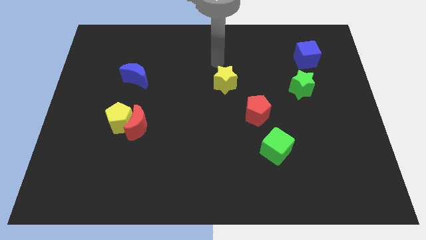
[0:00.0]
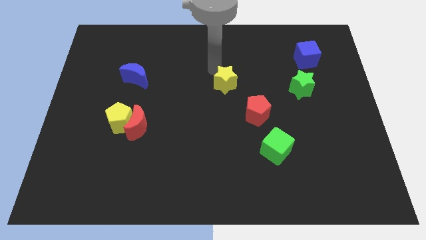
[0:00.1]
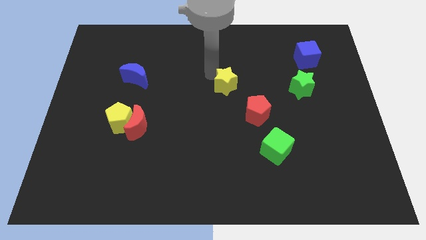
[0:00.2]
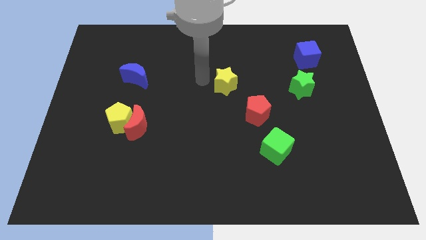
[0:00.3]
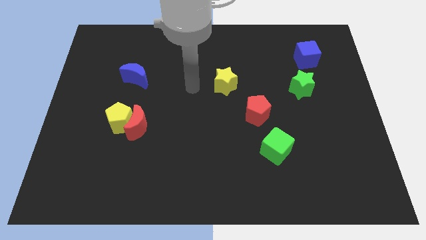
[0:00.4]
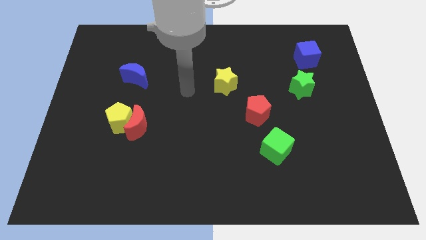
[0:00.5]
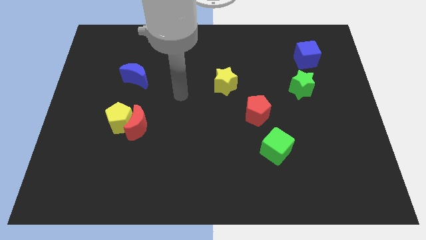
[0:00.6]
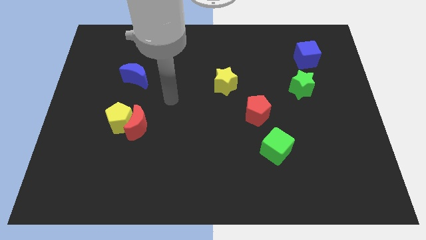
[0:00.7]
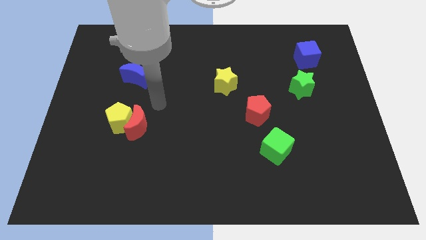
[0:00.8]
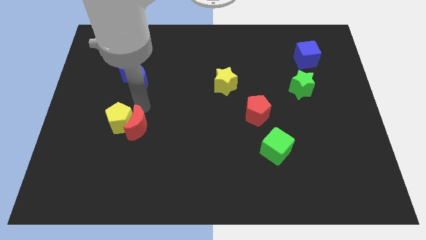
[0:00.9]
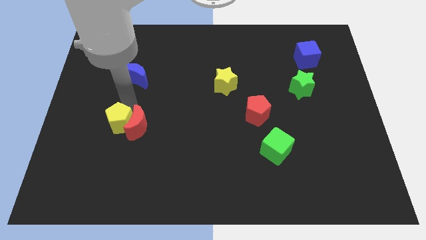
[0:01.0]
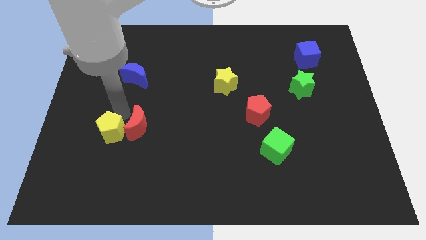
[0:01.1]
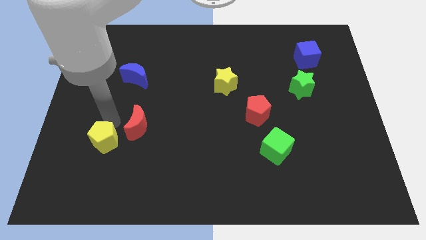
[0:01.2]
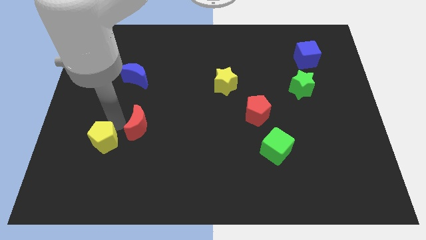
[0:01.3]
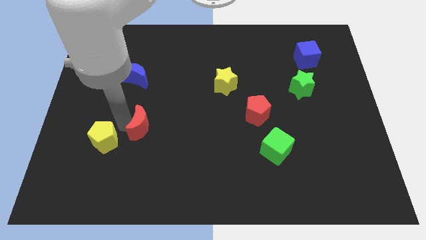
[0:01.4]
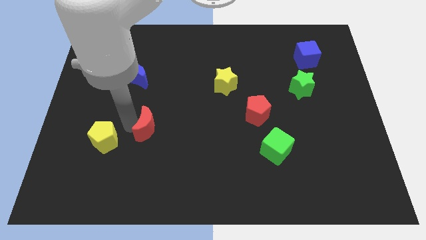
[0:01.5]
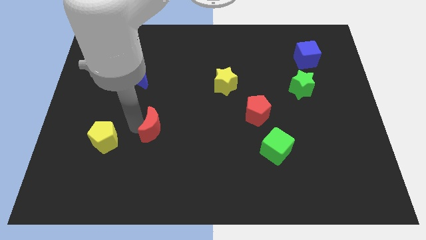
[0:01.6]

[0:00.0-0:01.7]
pull the red moon apart from the yellow pentagon

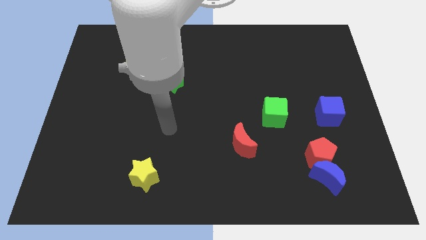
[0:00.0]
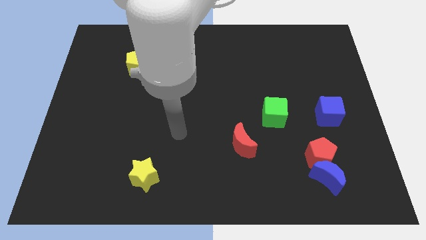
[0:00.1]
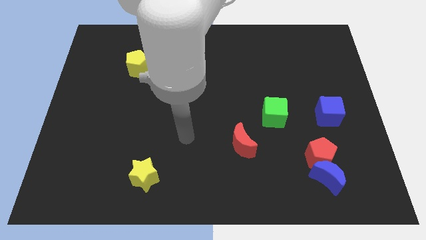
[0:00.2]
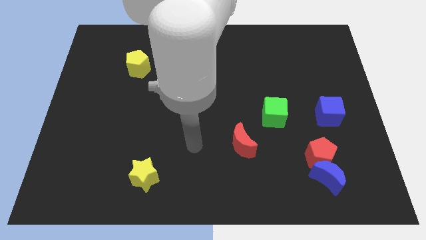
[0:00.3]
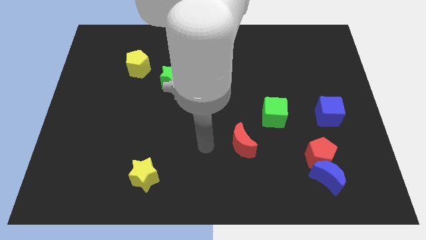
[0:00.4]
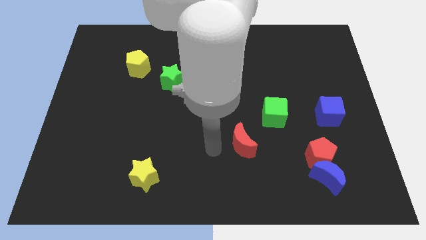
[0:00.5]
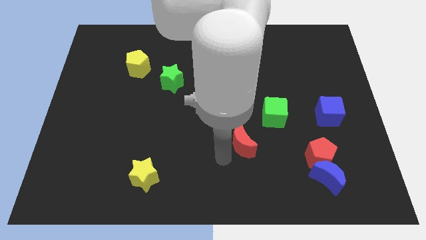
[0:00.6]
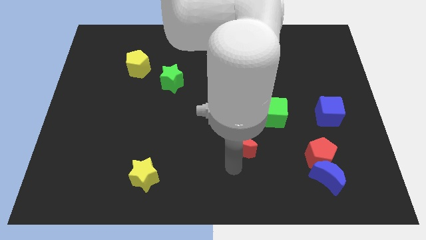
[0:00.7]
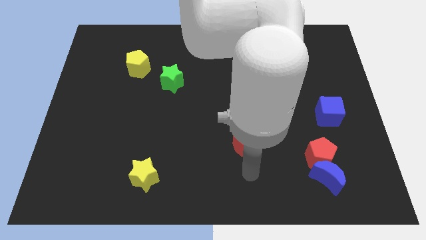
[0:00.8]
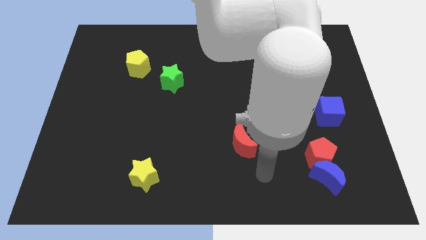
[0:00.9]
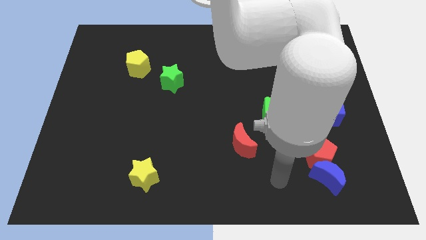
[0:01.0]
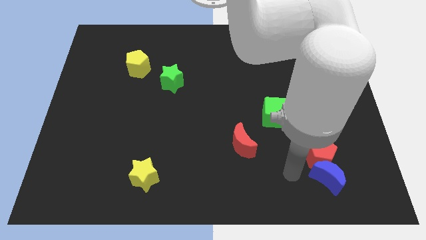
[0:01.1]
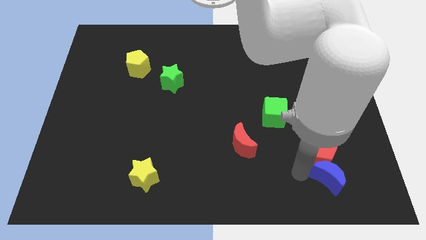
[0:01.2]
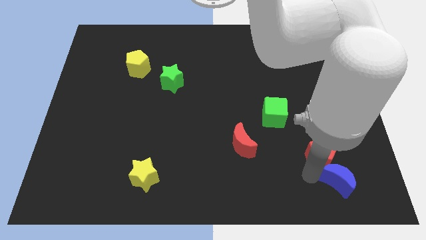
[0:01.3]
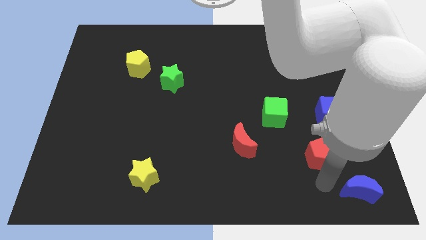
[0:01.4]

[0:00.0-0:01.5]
pull the red pentagon apart from the blue moon

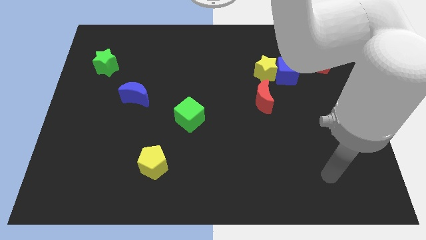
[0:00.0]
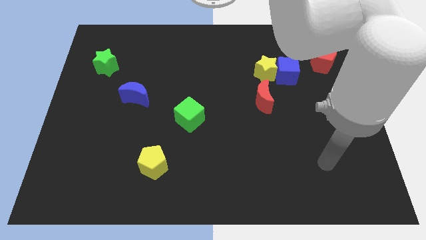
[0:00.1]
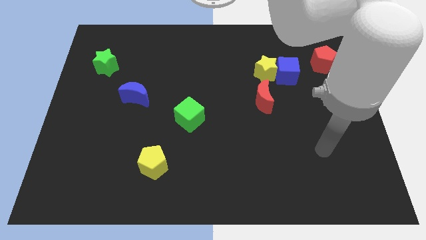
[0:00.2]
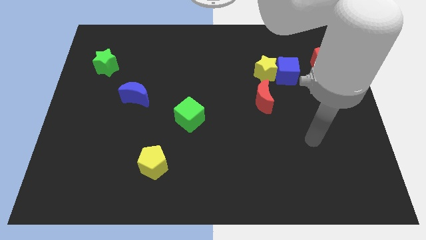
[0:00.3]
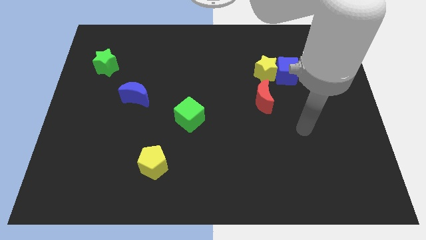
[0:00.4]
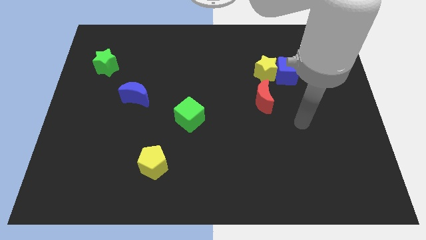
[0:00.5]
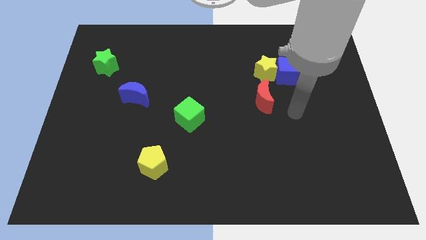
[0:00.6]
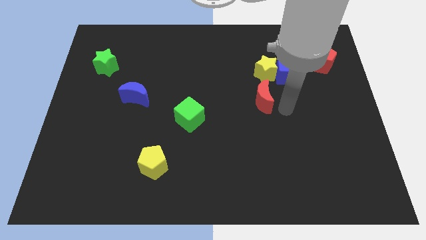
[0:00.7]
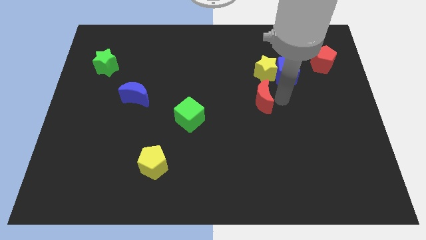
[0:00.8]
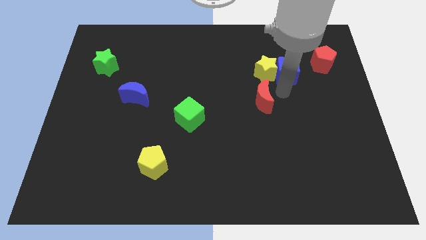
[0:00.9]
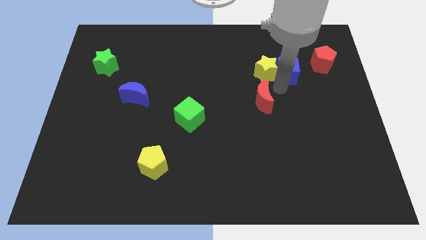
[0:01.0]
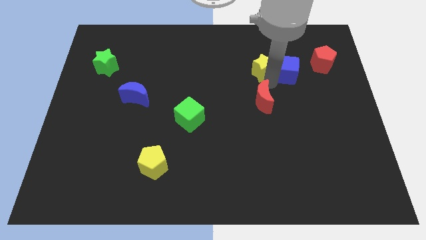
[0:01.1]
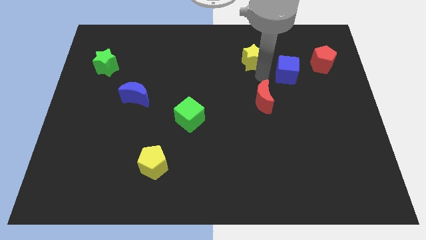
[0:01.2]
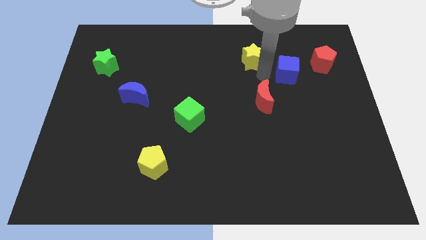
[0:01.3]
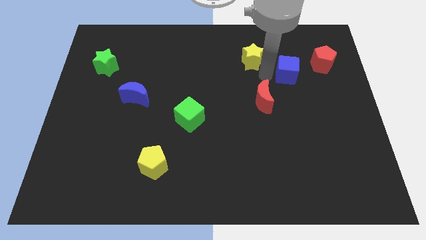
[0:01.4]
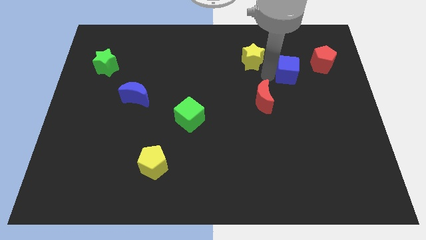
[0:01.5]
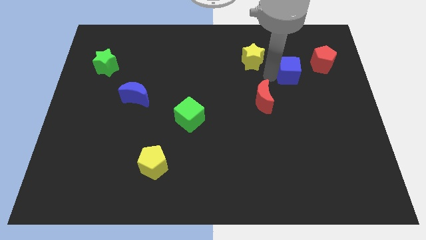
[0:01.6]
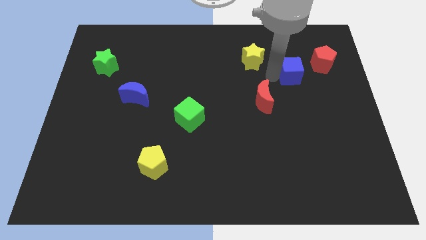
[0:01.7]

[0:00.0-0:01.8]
pull the blue cube apart from the yellow star

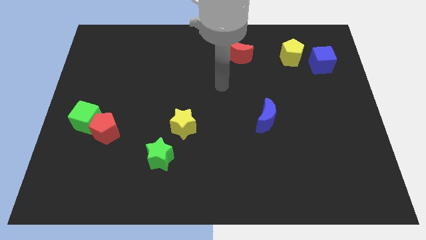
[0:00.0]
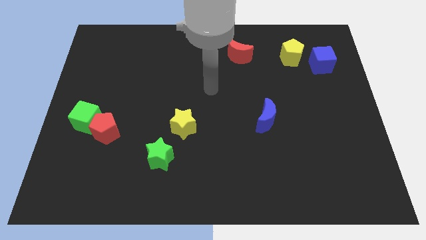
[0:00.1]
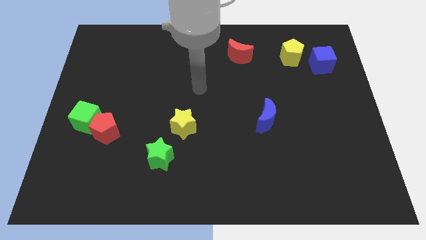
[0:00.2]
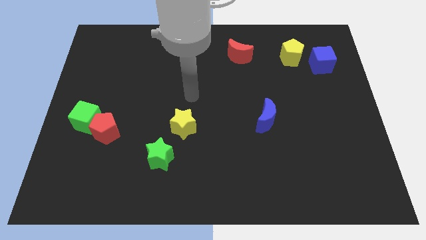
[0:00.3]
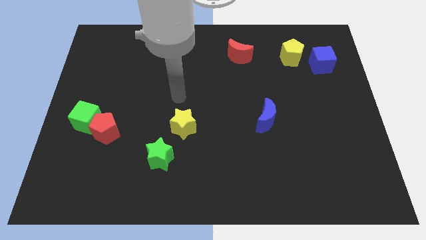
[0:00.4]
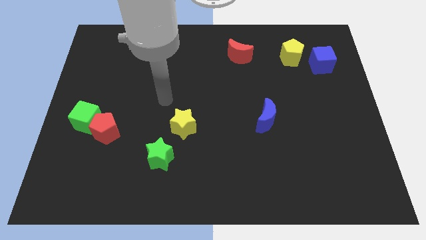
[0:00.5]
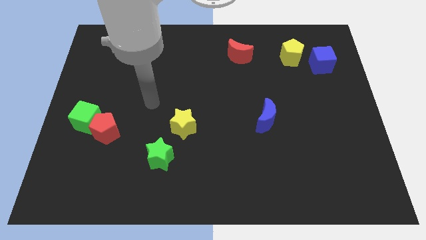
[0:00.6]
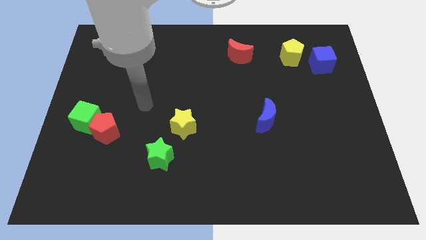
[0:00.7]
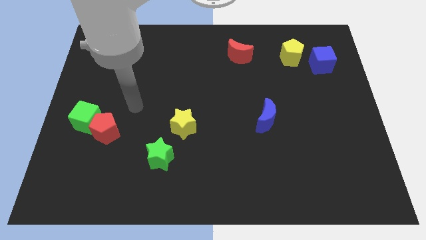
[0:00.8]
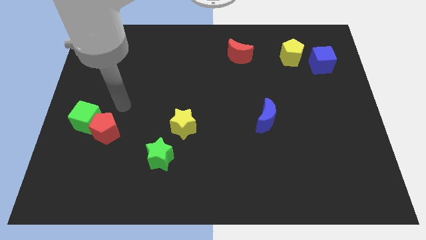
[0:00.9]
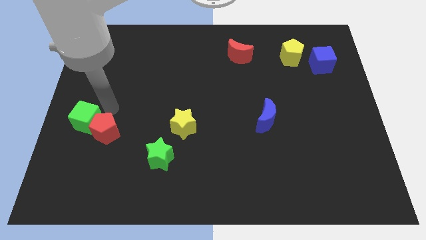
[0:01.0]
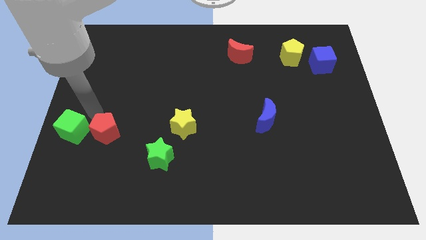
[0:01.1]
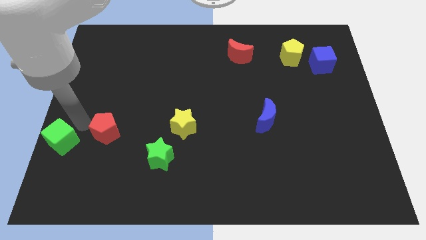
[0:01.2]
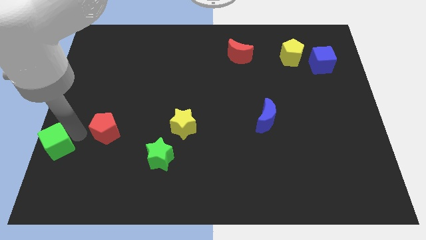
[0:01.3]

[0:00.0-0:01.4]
separate the red pentagon from the green cube

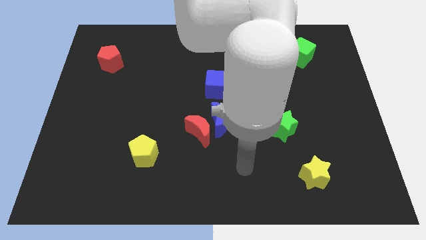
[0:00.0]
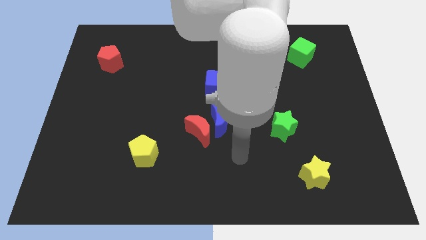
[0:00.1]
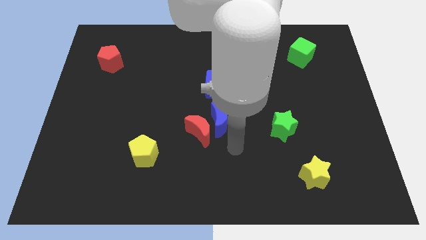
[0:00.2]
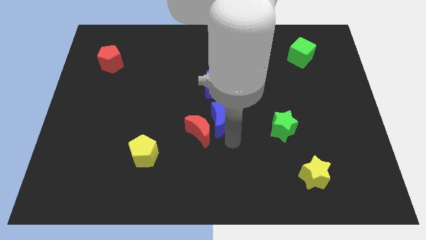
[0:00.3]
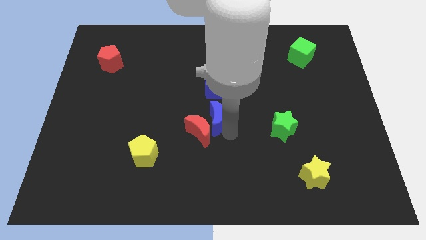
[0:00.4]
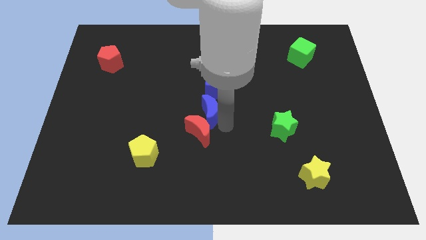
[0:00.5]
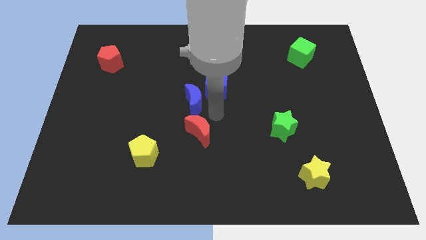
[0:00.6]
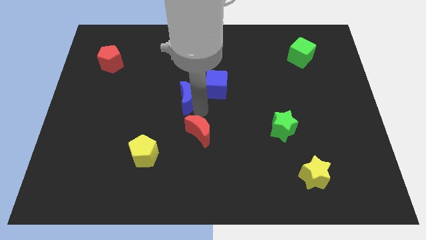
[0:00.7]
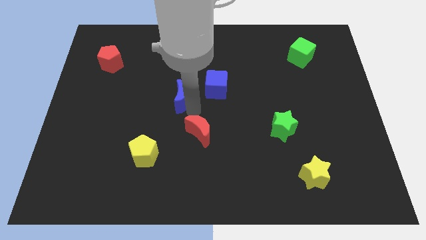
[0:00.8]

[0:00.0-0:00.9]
move the red moon away from the blue moon

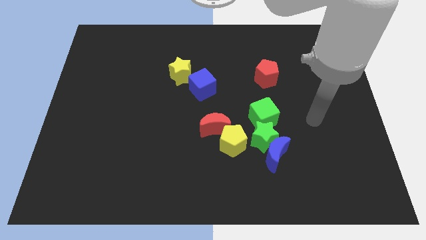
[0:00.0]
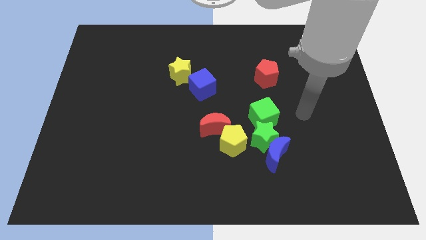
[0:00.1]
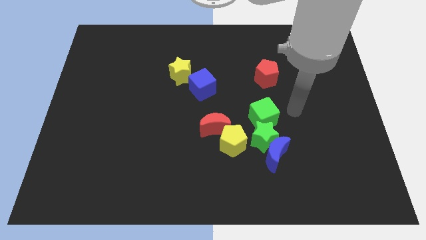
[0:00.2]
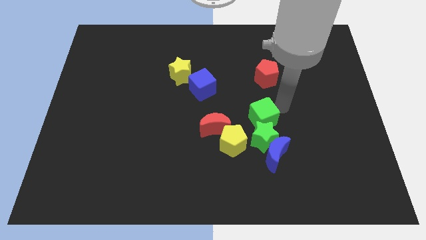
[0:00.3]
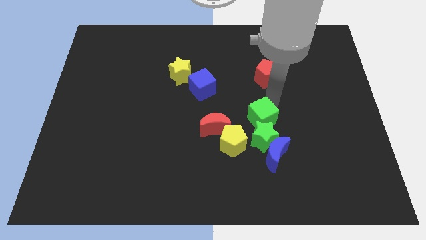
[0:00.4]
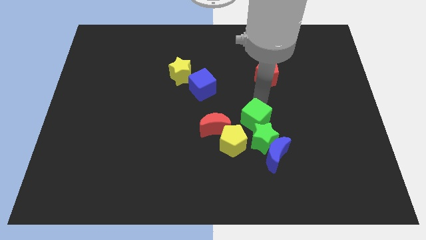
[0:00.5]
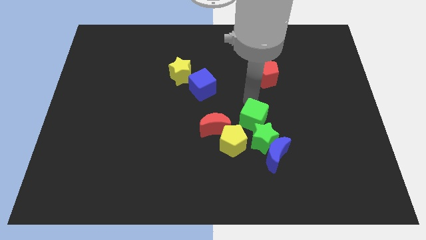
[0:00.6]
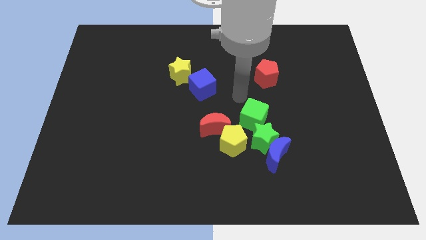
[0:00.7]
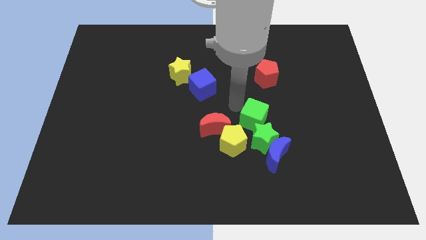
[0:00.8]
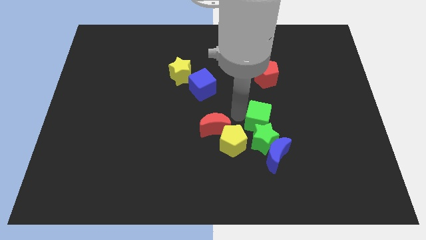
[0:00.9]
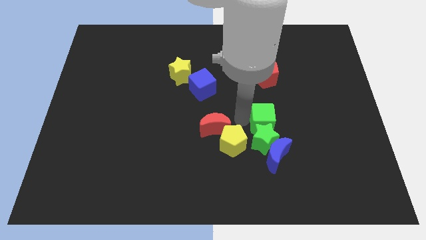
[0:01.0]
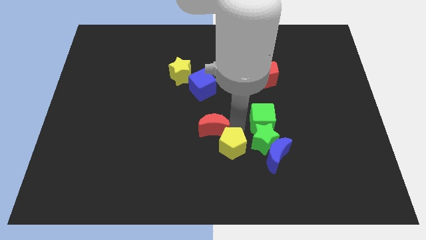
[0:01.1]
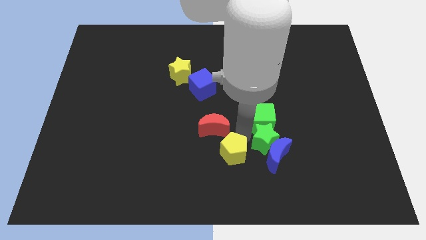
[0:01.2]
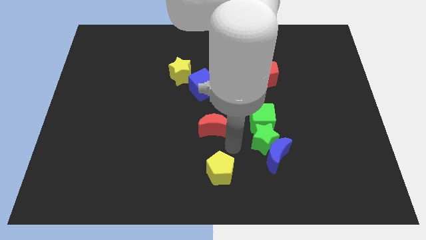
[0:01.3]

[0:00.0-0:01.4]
separate the red moon from the yellow pentagon

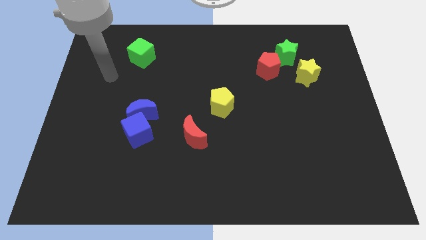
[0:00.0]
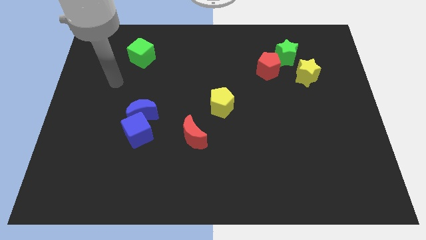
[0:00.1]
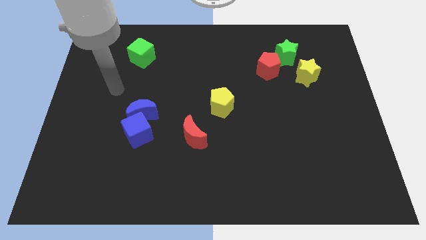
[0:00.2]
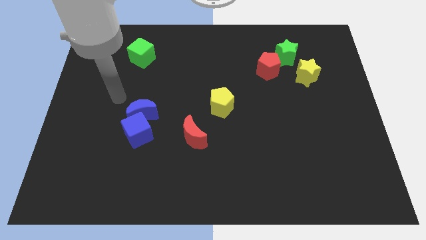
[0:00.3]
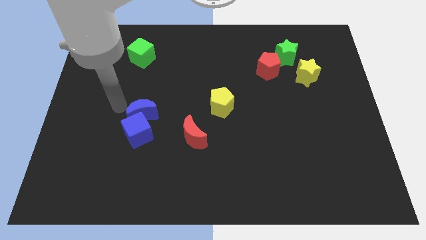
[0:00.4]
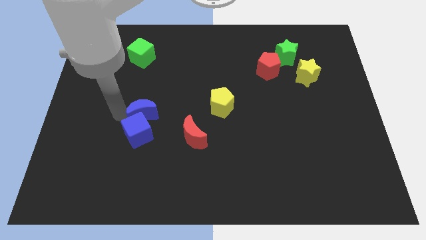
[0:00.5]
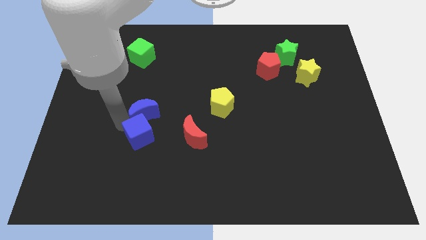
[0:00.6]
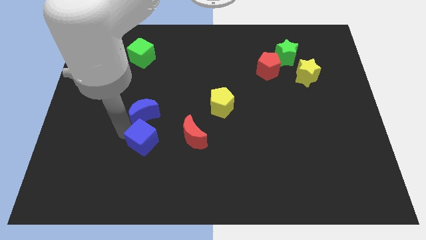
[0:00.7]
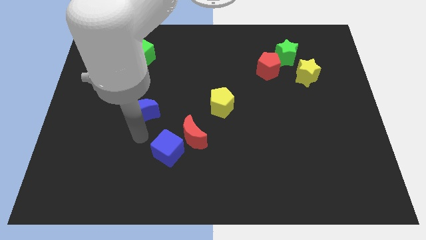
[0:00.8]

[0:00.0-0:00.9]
separate the blue moon from the blue cube
